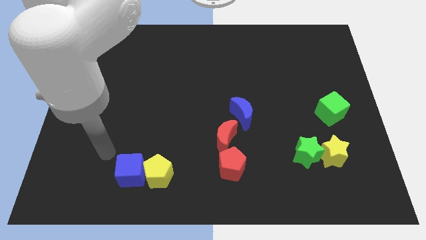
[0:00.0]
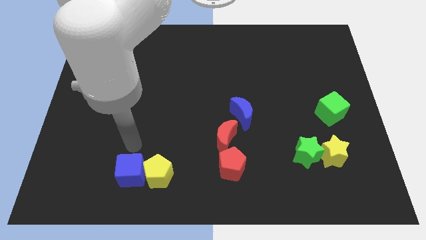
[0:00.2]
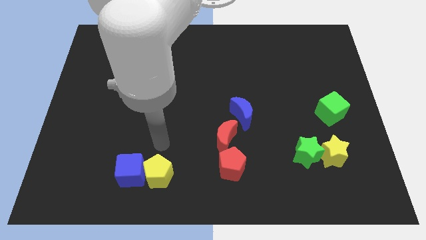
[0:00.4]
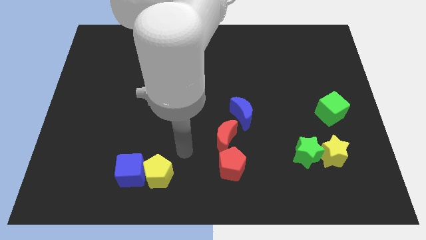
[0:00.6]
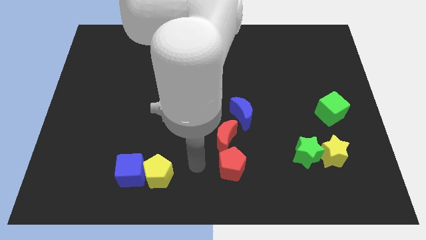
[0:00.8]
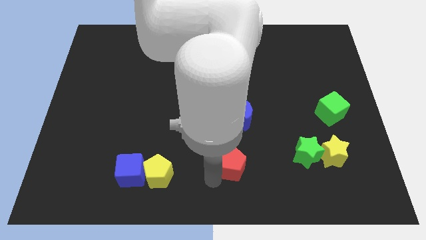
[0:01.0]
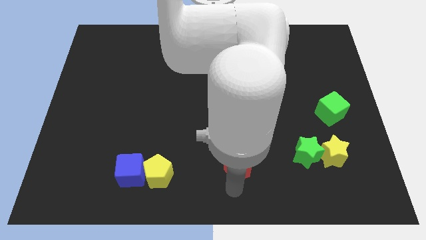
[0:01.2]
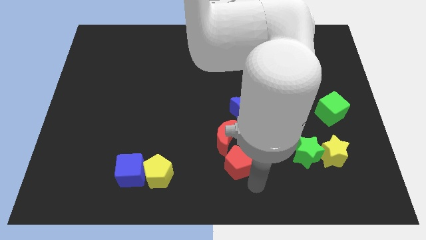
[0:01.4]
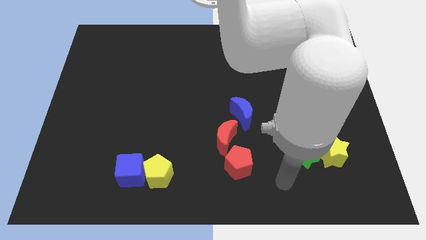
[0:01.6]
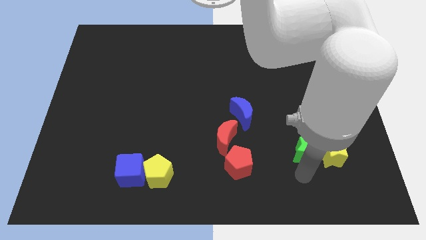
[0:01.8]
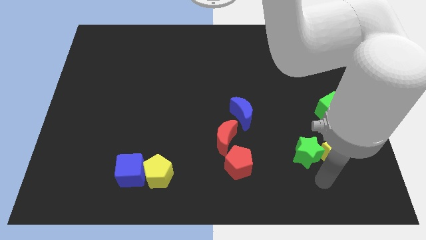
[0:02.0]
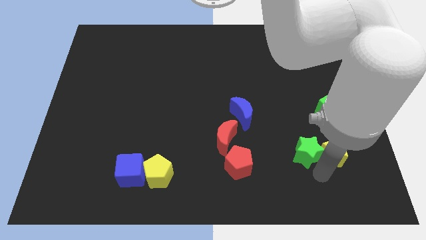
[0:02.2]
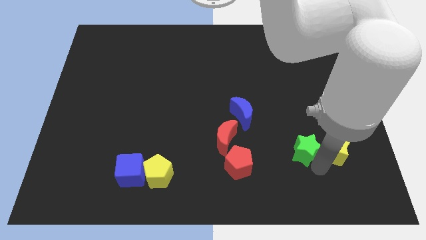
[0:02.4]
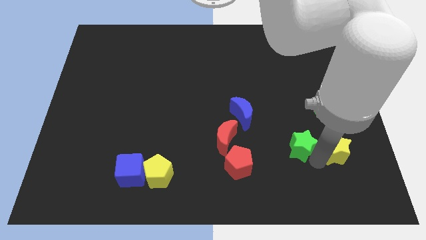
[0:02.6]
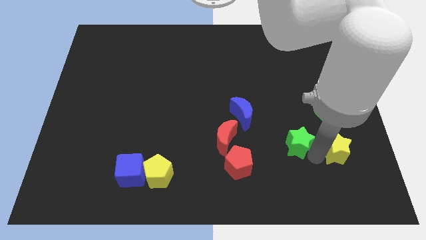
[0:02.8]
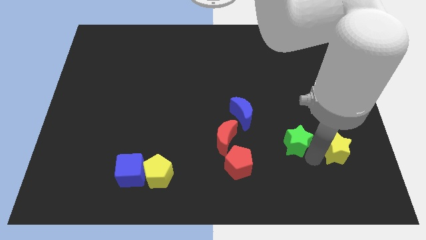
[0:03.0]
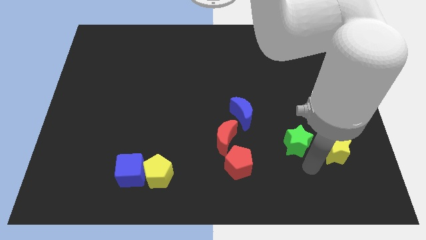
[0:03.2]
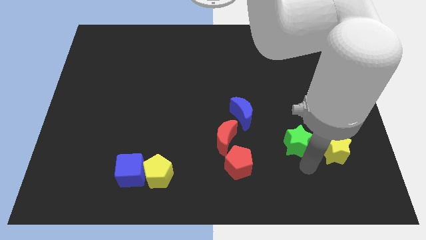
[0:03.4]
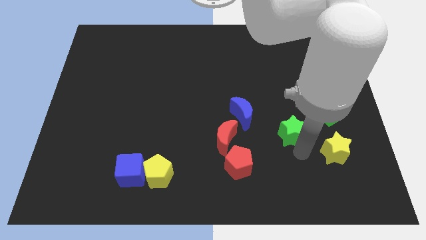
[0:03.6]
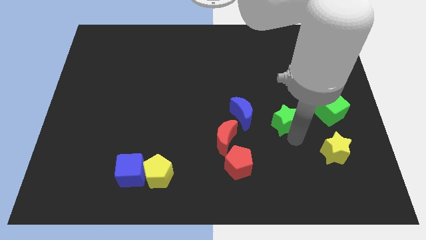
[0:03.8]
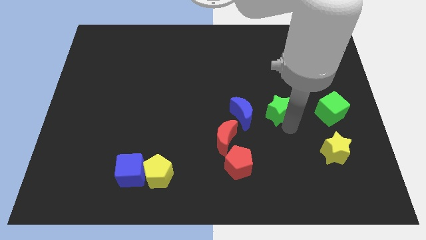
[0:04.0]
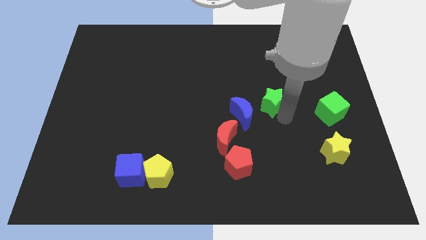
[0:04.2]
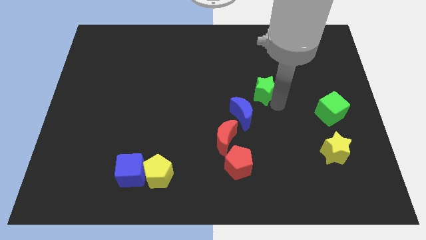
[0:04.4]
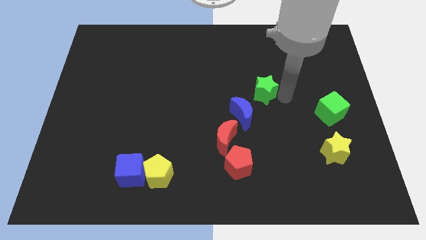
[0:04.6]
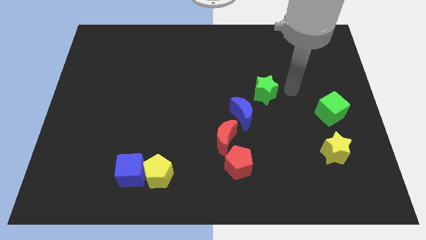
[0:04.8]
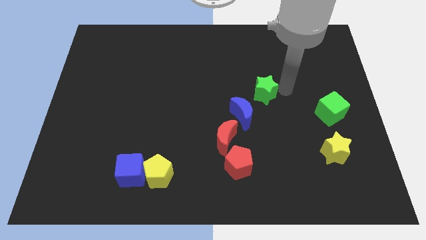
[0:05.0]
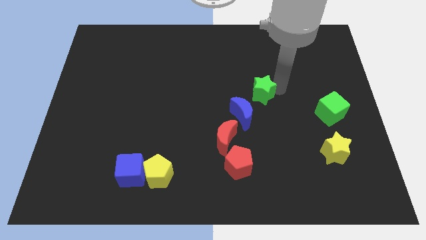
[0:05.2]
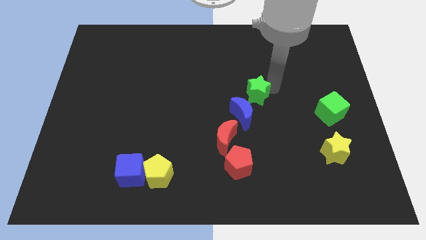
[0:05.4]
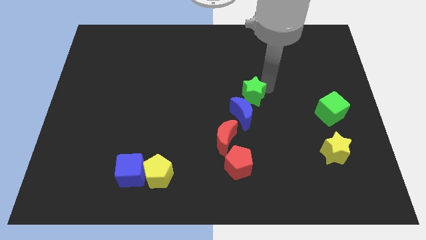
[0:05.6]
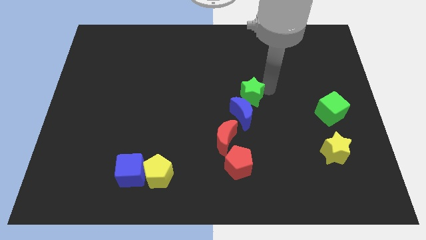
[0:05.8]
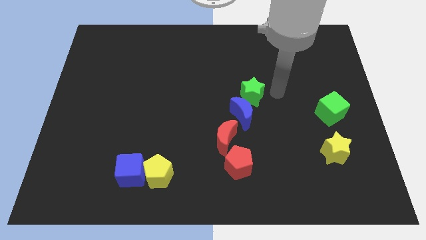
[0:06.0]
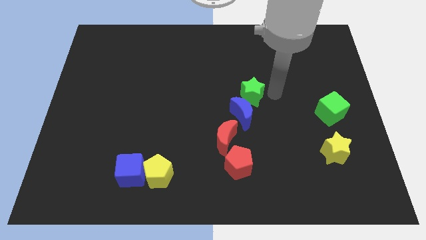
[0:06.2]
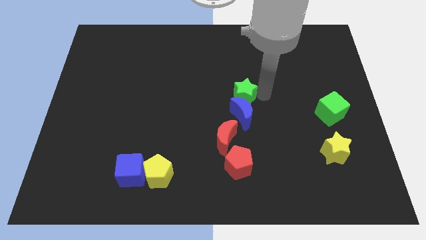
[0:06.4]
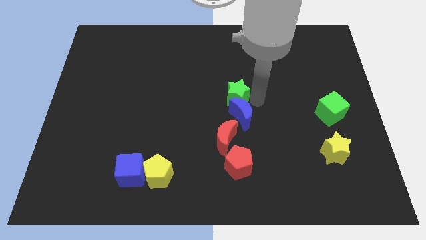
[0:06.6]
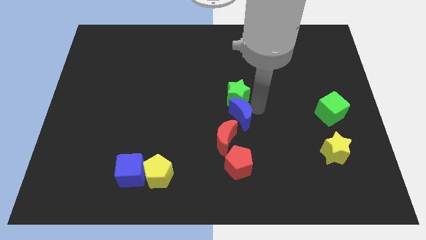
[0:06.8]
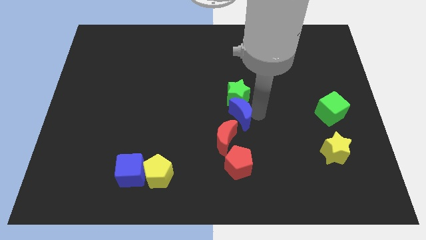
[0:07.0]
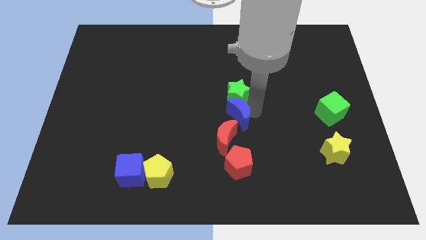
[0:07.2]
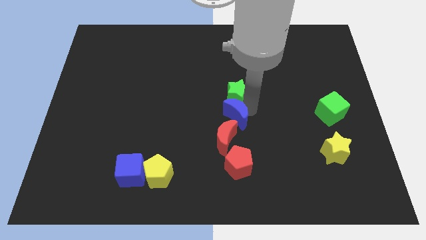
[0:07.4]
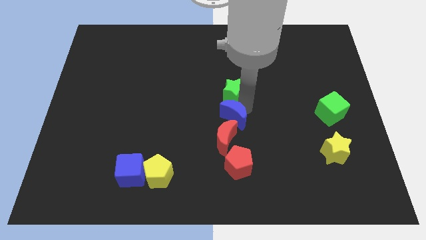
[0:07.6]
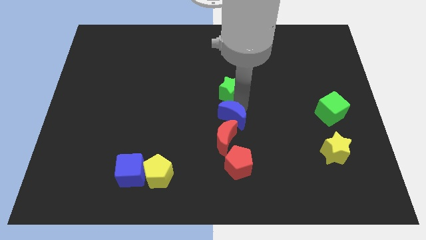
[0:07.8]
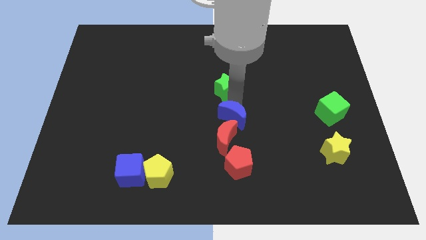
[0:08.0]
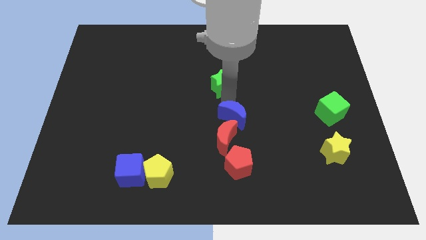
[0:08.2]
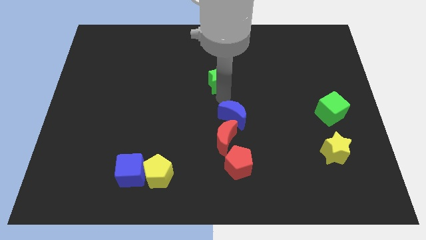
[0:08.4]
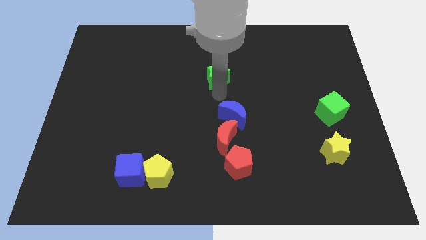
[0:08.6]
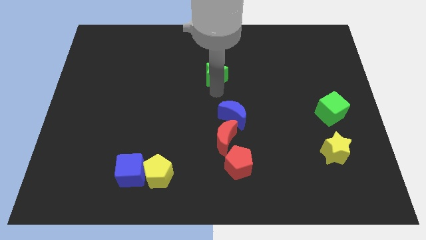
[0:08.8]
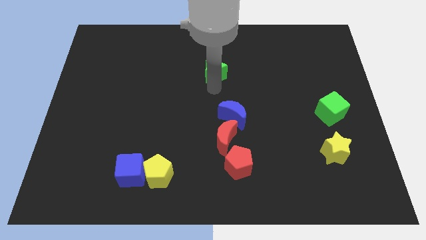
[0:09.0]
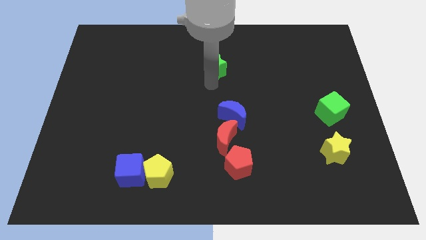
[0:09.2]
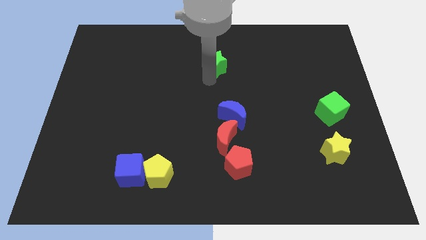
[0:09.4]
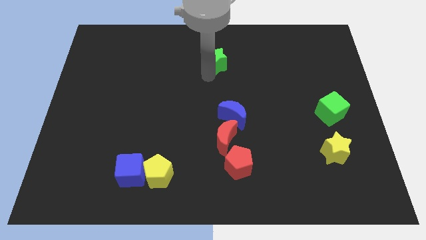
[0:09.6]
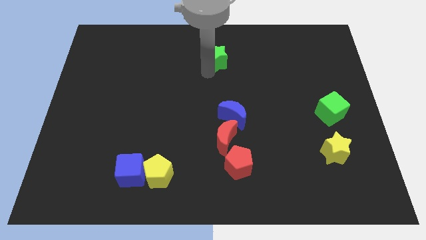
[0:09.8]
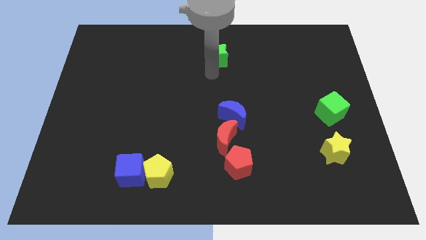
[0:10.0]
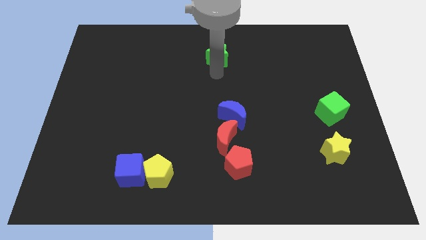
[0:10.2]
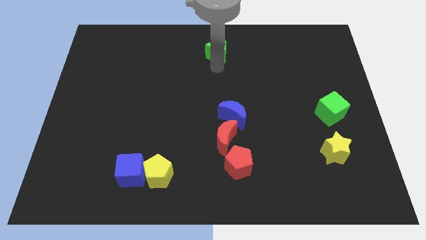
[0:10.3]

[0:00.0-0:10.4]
slide the green star to the top

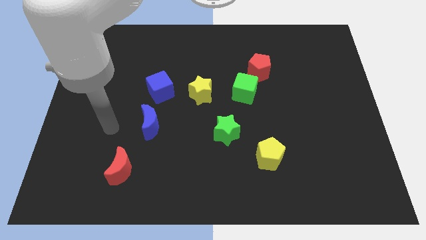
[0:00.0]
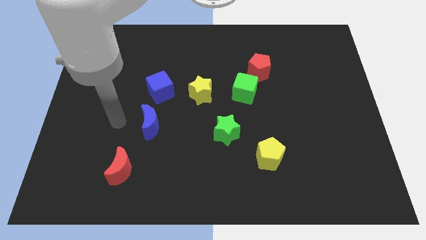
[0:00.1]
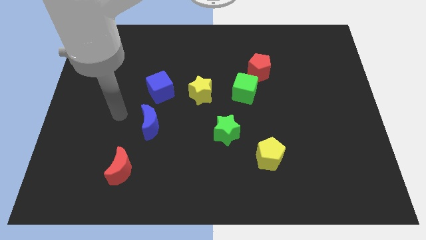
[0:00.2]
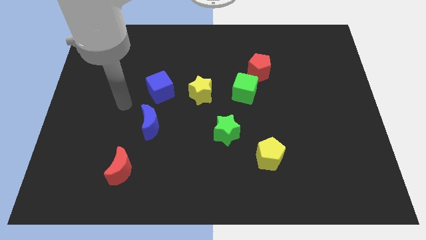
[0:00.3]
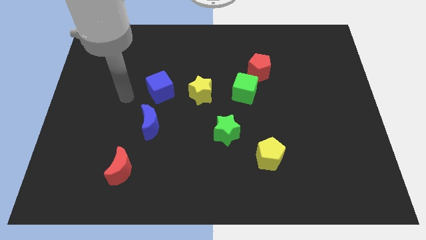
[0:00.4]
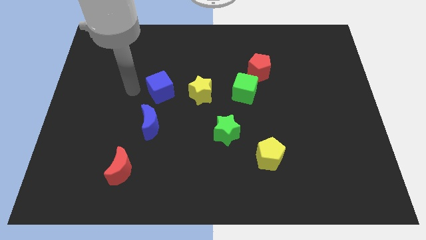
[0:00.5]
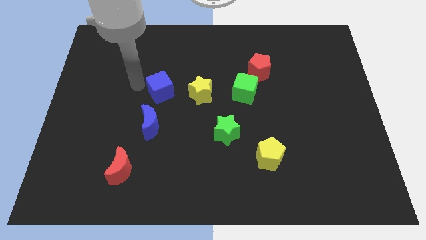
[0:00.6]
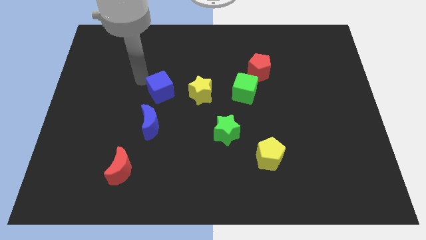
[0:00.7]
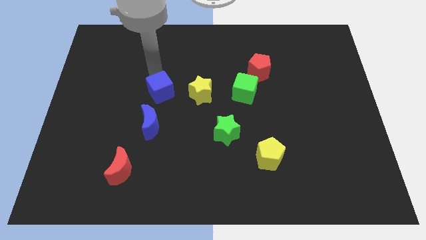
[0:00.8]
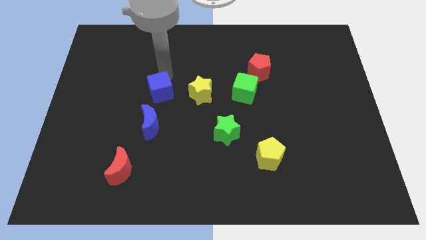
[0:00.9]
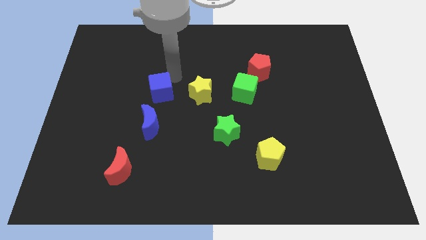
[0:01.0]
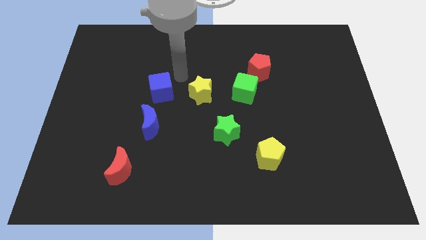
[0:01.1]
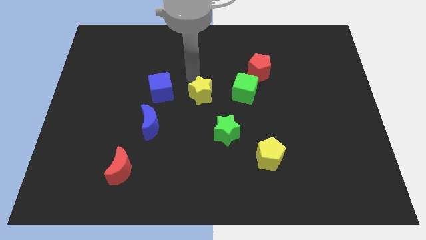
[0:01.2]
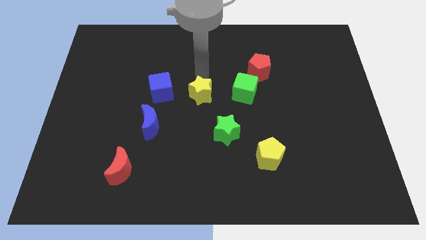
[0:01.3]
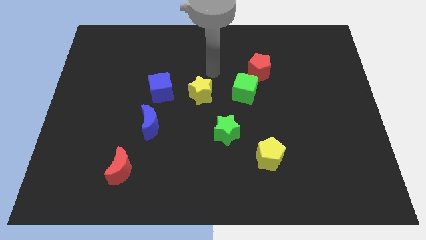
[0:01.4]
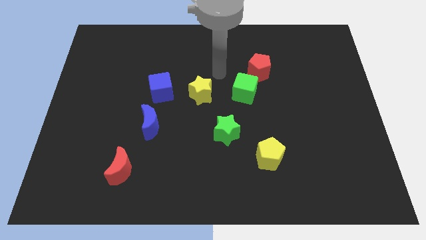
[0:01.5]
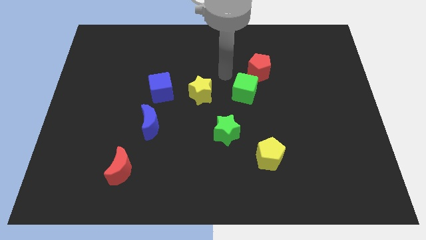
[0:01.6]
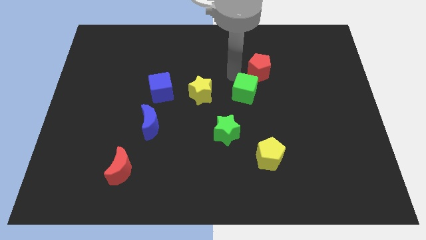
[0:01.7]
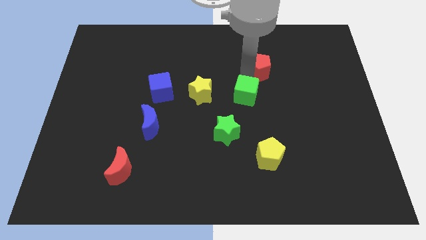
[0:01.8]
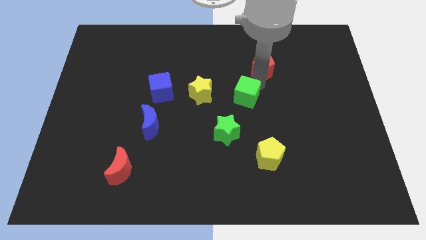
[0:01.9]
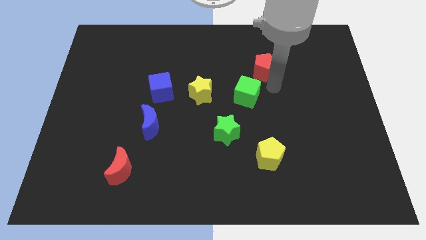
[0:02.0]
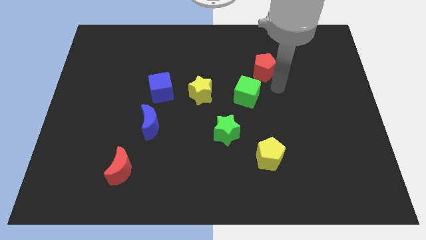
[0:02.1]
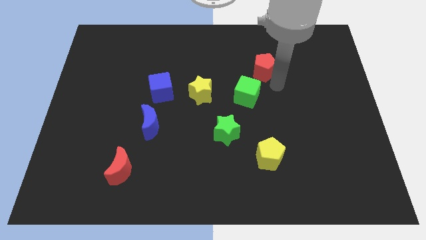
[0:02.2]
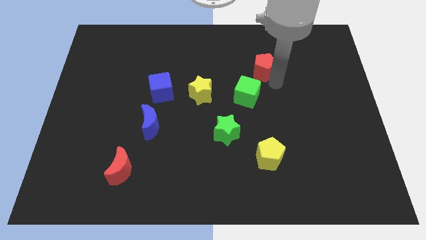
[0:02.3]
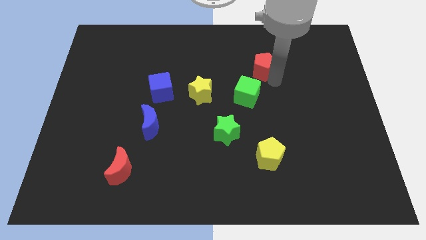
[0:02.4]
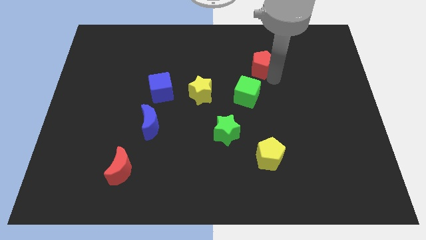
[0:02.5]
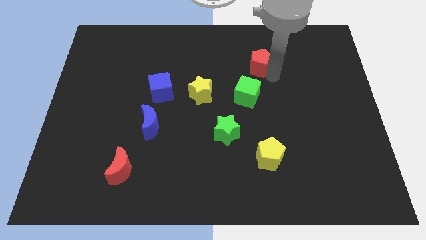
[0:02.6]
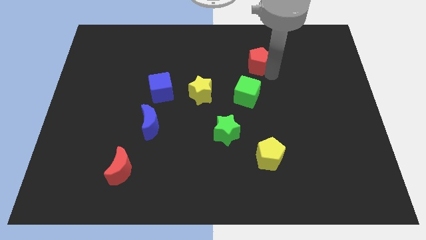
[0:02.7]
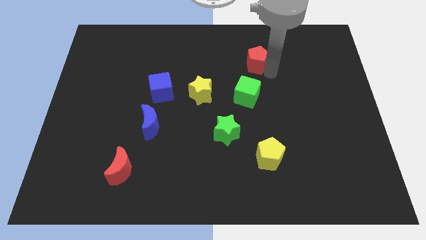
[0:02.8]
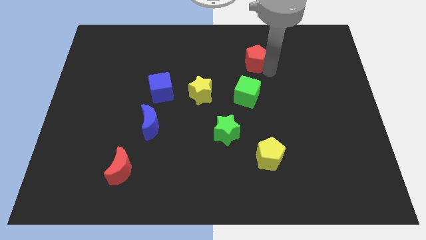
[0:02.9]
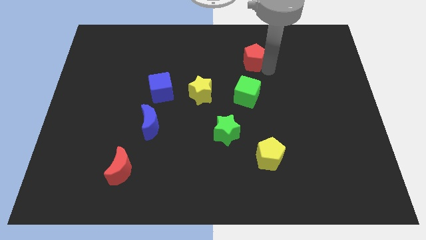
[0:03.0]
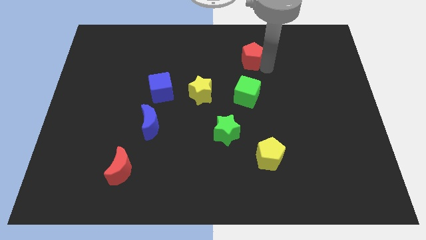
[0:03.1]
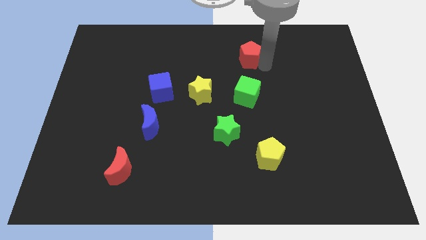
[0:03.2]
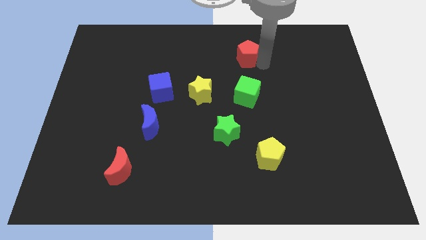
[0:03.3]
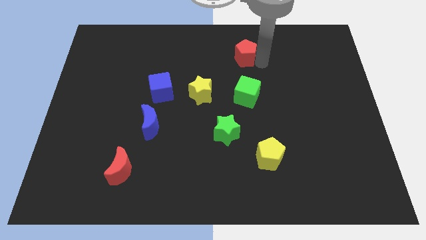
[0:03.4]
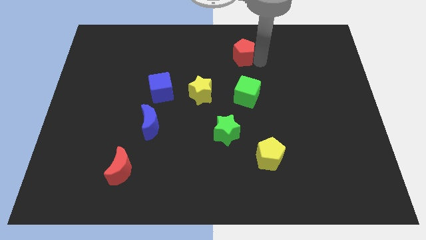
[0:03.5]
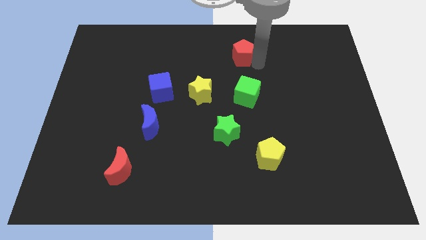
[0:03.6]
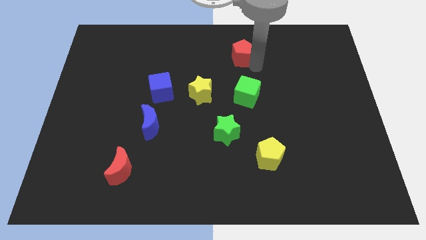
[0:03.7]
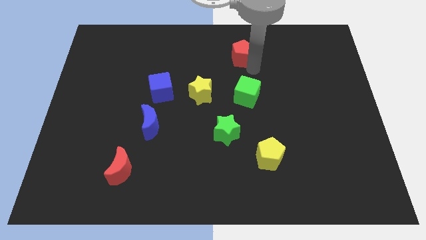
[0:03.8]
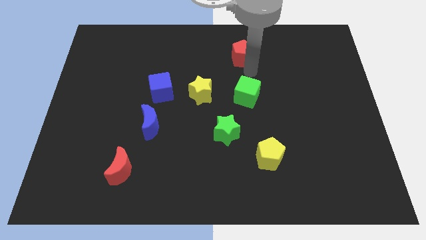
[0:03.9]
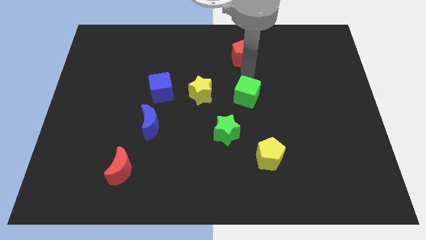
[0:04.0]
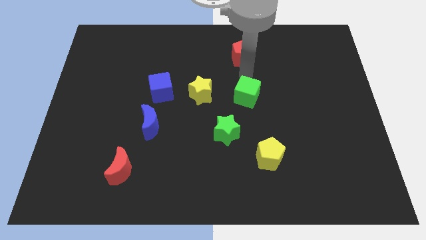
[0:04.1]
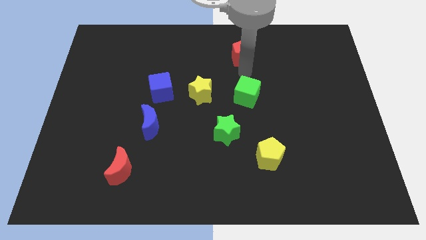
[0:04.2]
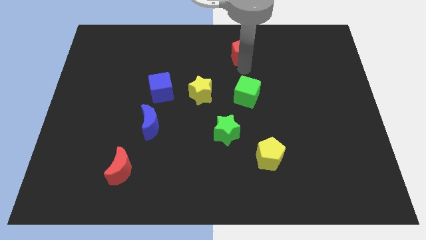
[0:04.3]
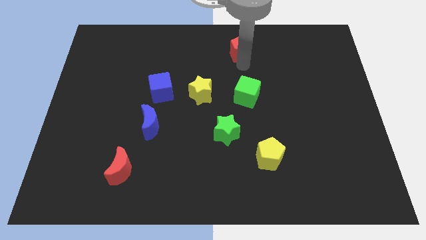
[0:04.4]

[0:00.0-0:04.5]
push the red pentagon to the top
